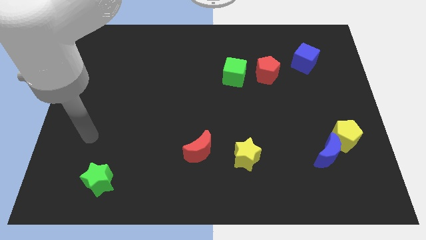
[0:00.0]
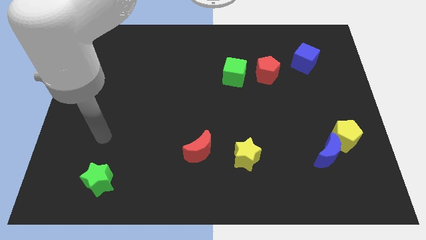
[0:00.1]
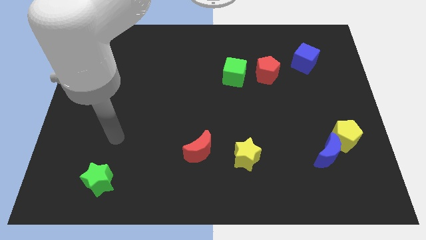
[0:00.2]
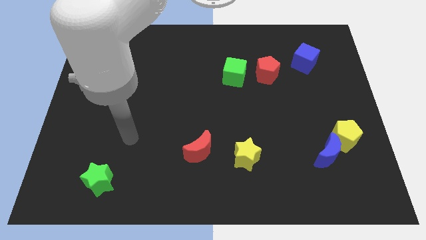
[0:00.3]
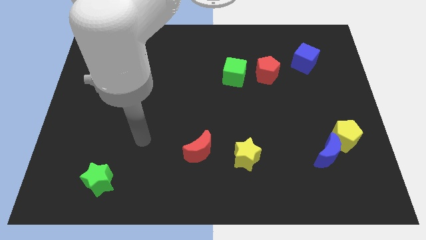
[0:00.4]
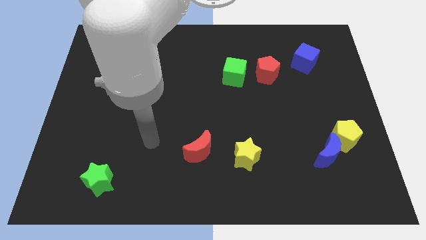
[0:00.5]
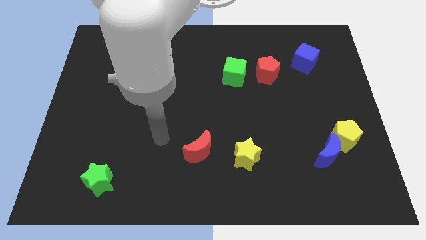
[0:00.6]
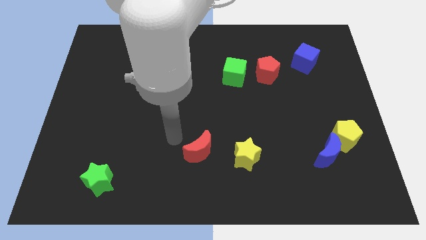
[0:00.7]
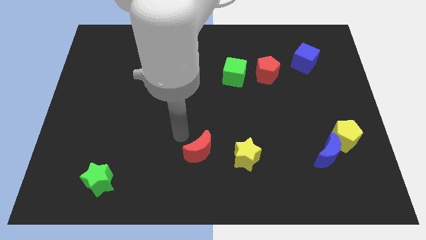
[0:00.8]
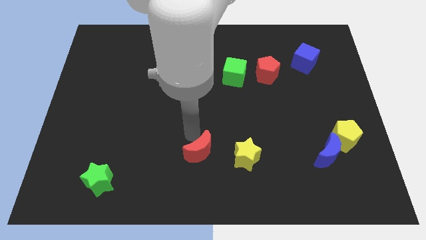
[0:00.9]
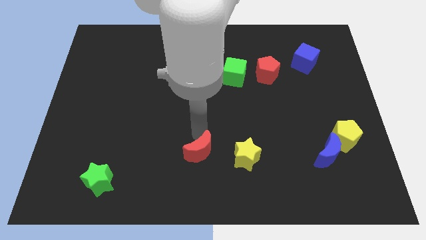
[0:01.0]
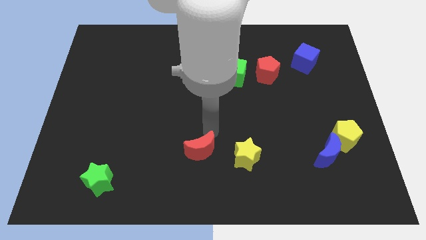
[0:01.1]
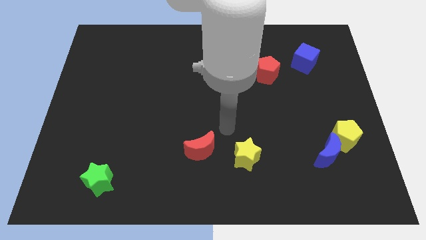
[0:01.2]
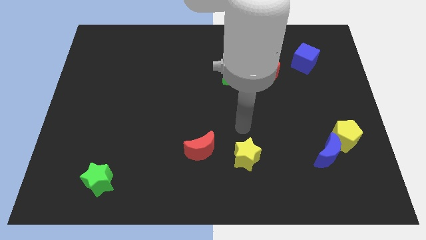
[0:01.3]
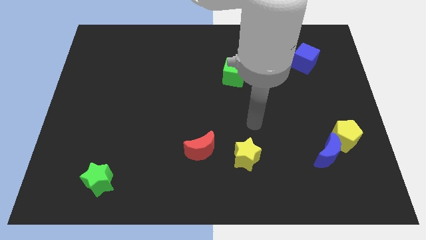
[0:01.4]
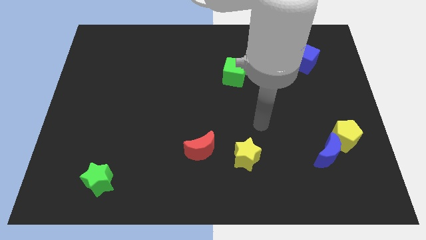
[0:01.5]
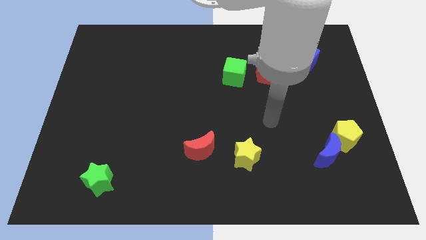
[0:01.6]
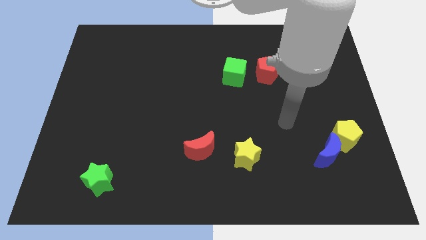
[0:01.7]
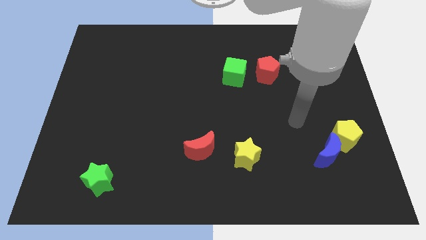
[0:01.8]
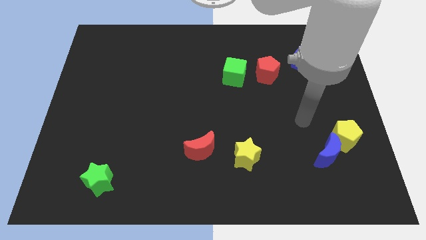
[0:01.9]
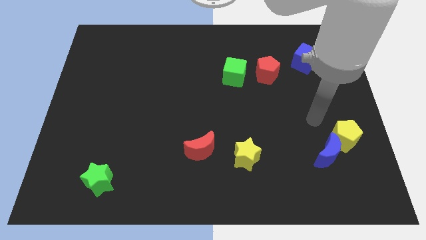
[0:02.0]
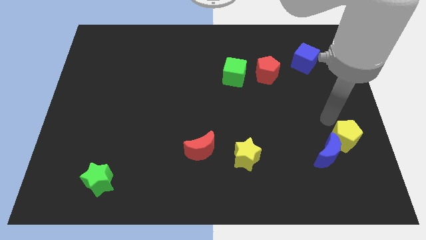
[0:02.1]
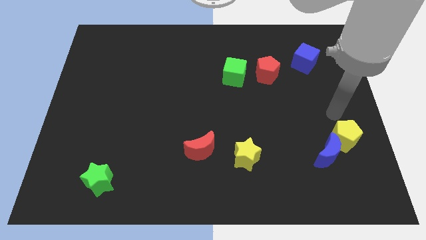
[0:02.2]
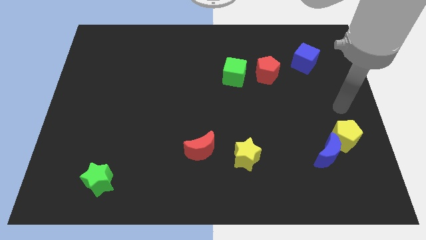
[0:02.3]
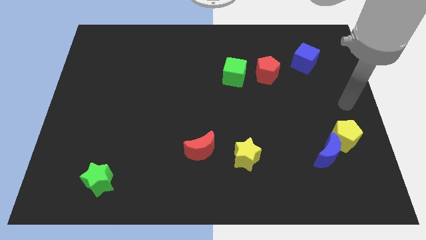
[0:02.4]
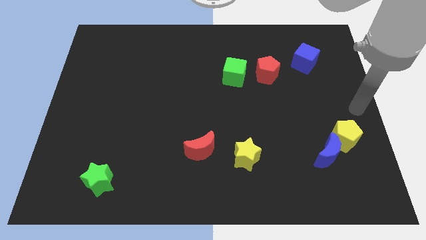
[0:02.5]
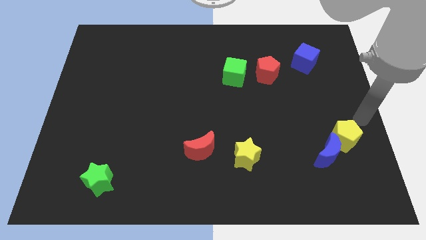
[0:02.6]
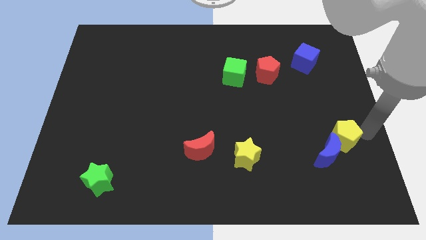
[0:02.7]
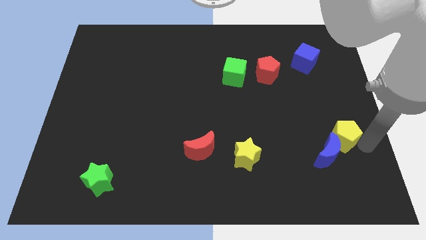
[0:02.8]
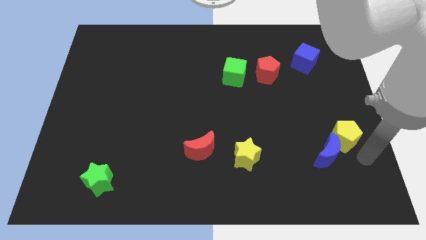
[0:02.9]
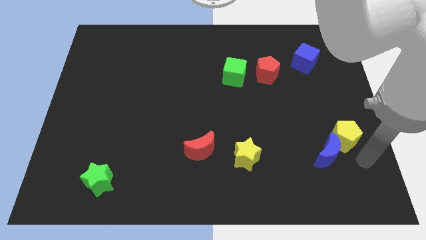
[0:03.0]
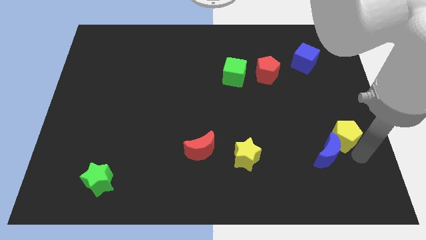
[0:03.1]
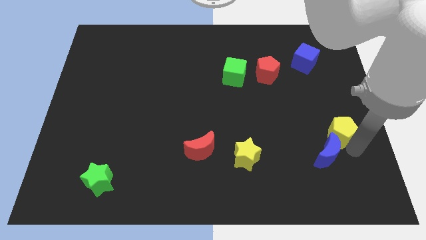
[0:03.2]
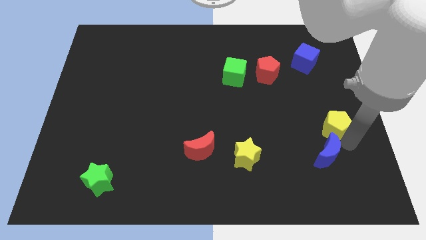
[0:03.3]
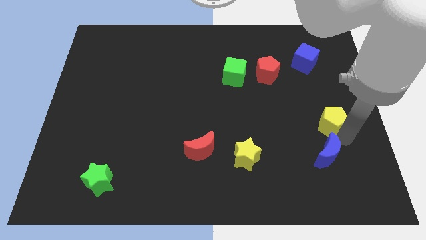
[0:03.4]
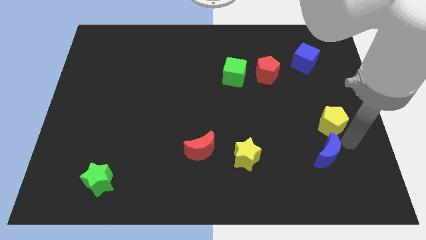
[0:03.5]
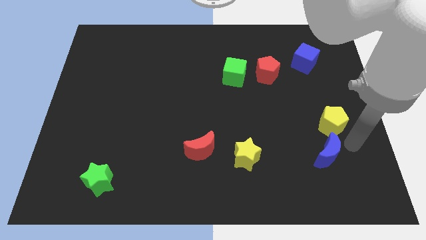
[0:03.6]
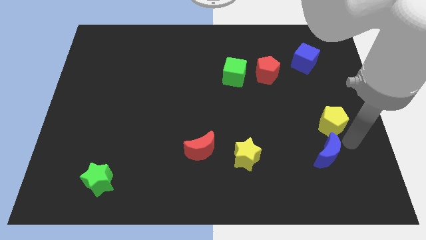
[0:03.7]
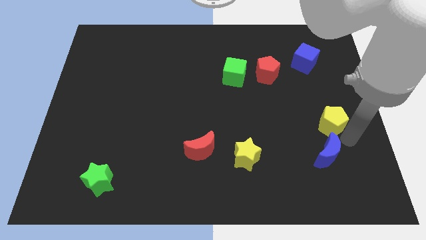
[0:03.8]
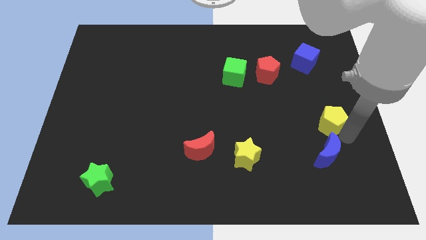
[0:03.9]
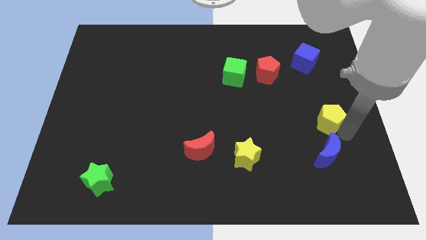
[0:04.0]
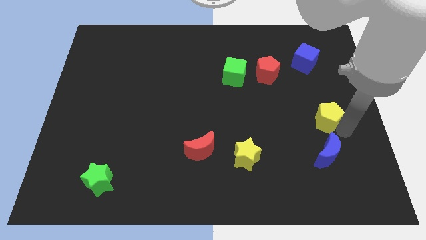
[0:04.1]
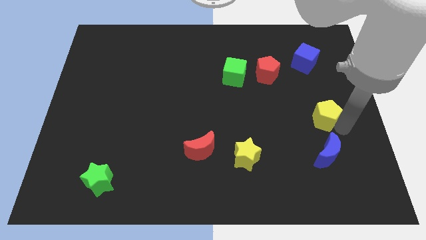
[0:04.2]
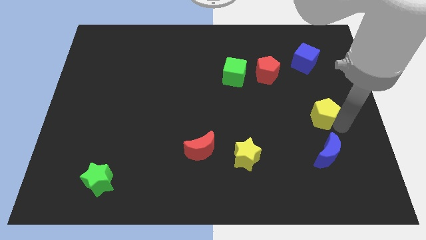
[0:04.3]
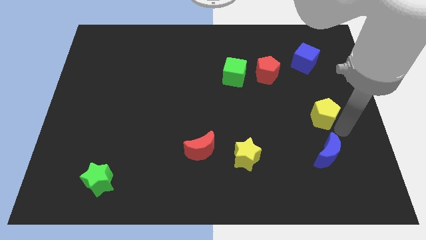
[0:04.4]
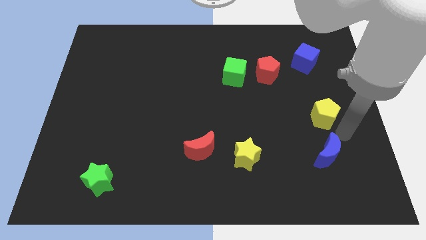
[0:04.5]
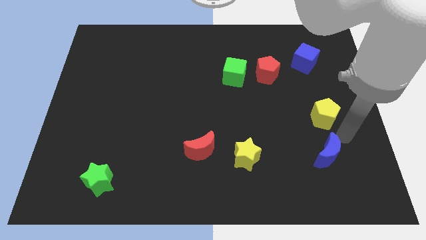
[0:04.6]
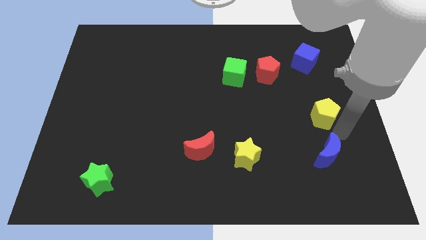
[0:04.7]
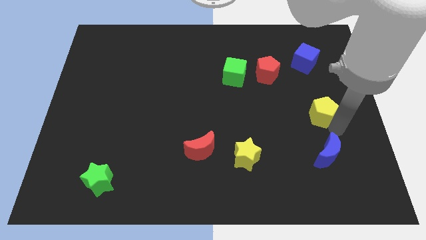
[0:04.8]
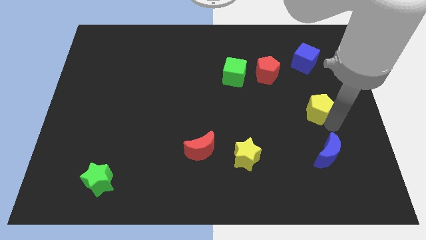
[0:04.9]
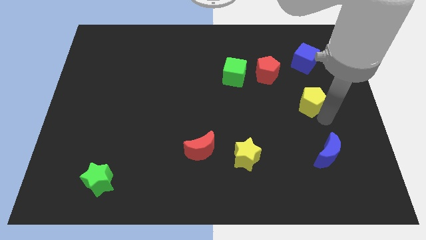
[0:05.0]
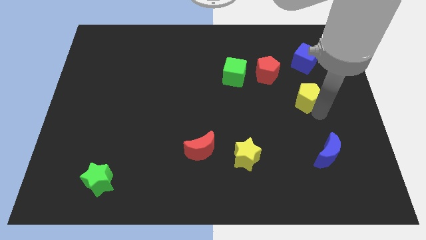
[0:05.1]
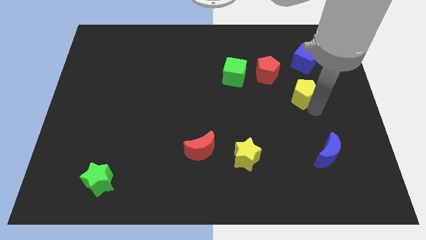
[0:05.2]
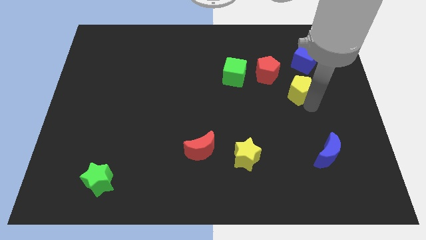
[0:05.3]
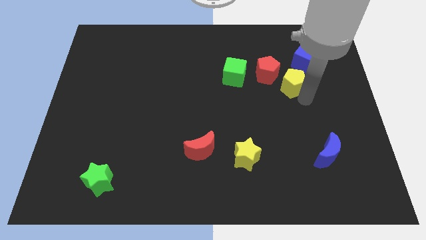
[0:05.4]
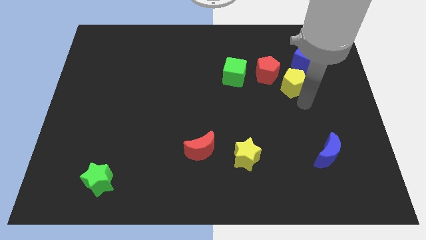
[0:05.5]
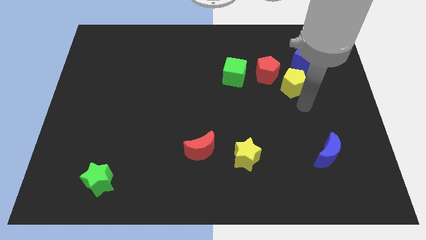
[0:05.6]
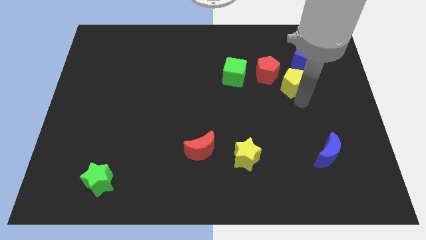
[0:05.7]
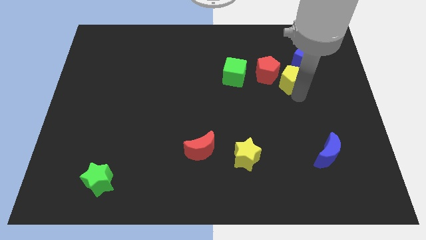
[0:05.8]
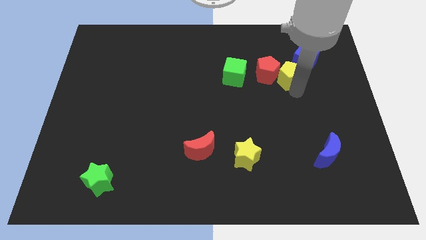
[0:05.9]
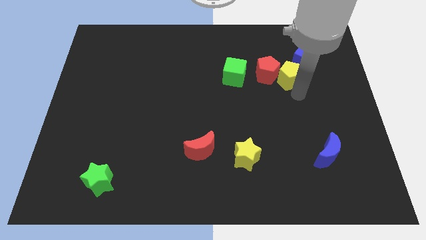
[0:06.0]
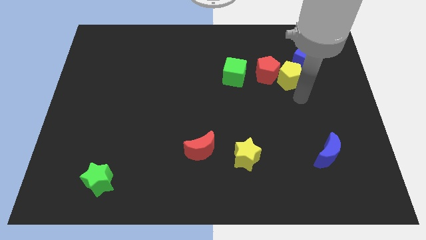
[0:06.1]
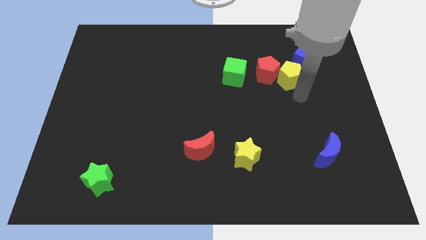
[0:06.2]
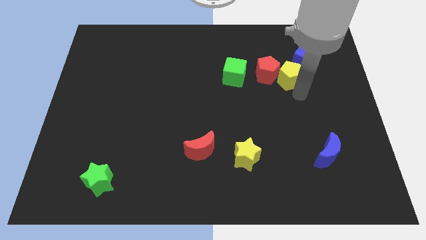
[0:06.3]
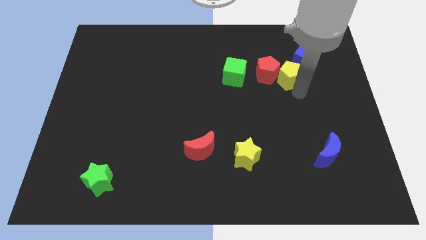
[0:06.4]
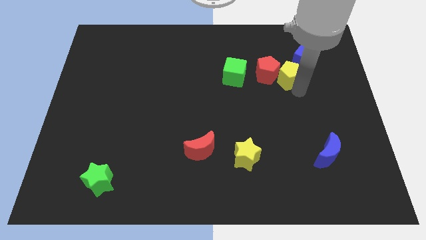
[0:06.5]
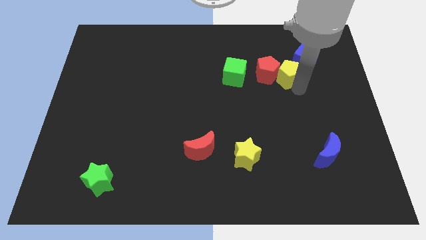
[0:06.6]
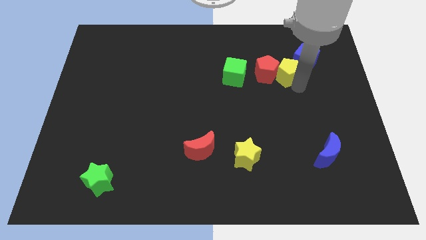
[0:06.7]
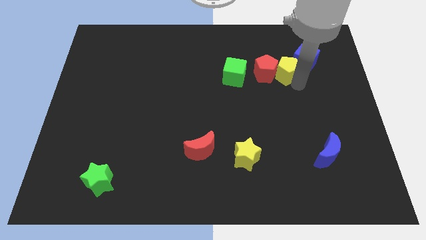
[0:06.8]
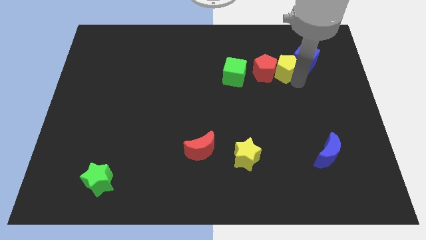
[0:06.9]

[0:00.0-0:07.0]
push the yellow pentagon upwards and left

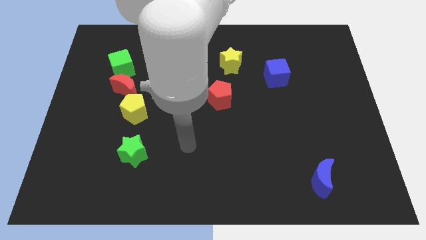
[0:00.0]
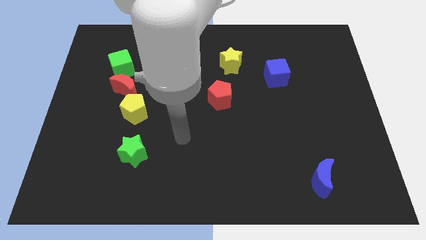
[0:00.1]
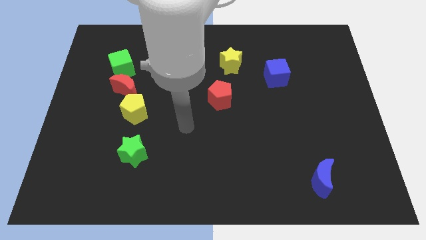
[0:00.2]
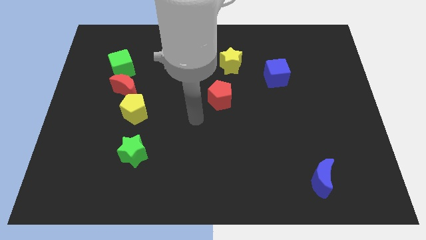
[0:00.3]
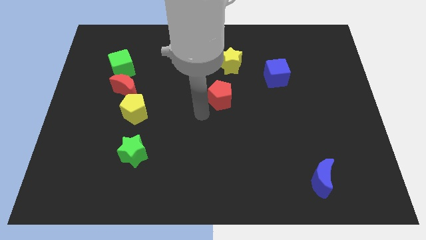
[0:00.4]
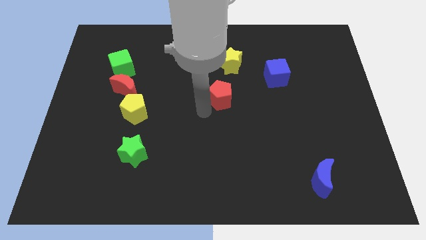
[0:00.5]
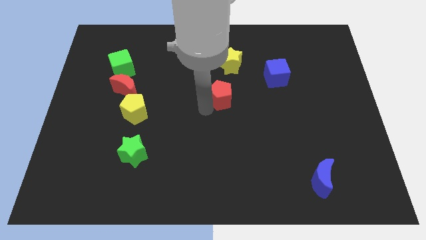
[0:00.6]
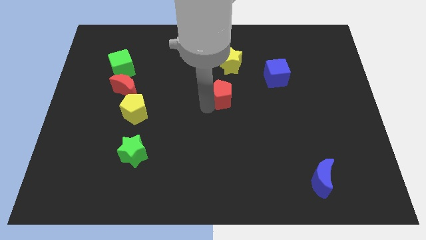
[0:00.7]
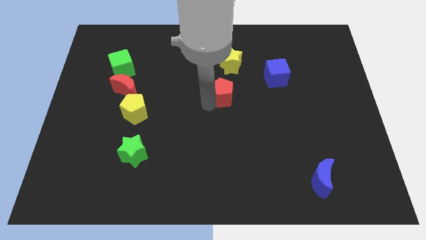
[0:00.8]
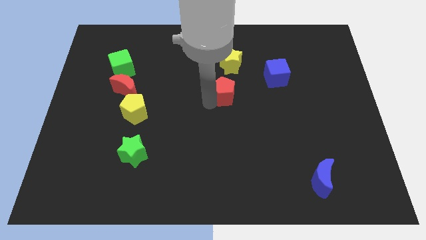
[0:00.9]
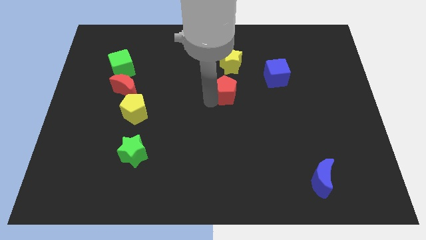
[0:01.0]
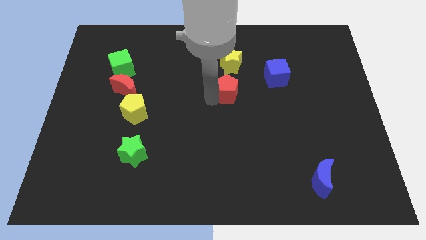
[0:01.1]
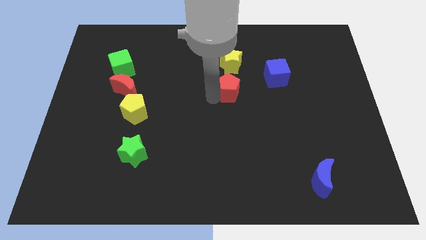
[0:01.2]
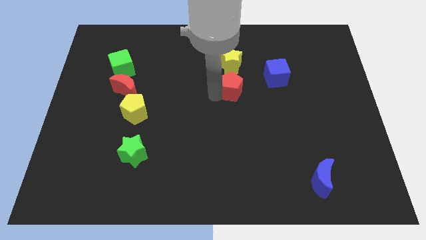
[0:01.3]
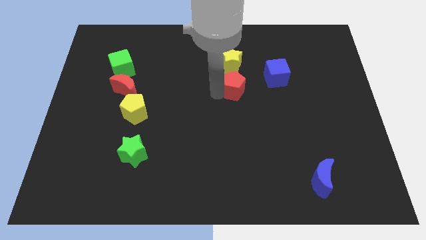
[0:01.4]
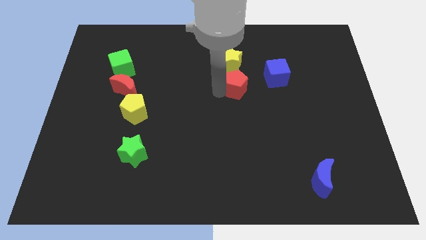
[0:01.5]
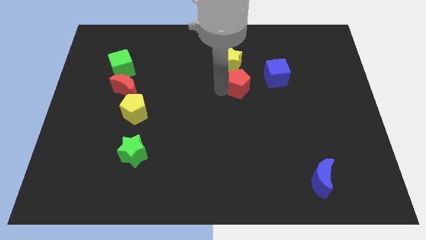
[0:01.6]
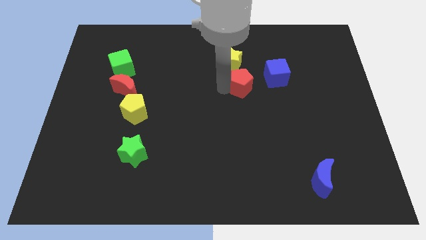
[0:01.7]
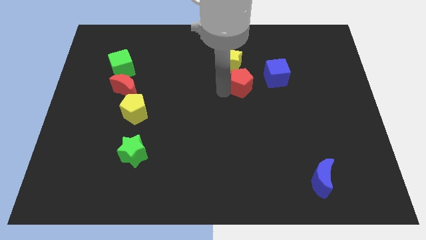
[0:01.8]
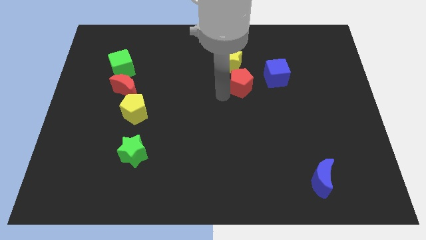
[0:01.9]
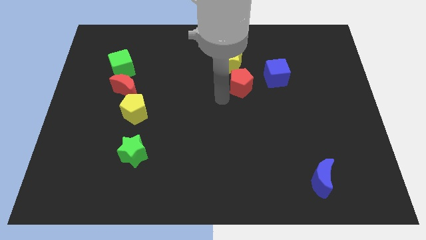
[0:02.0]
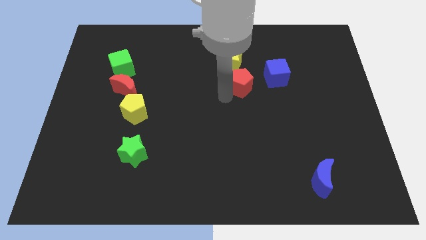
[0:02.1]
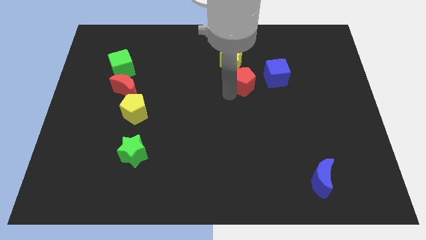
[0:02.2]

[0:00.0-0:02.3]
slide the red pentagon up and to the right slightly
